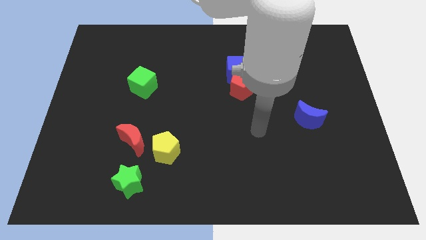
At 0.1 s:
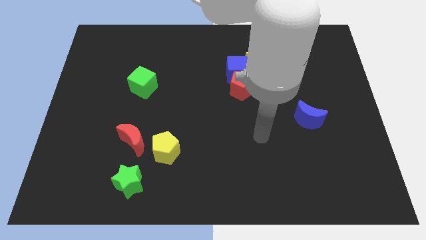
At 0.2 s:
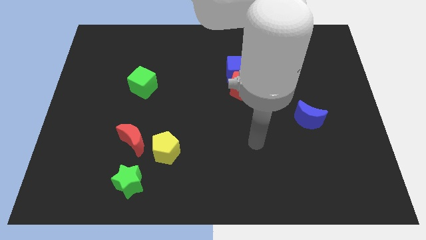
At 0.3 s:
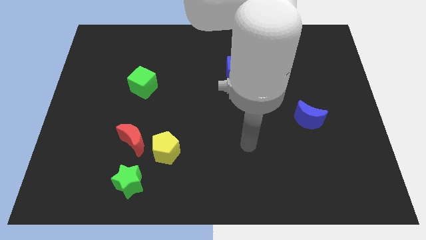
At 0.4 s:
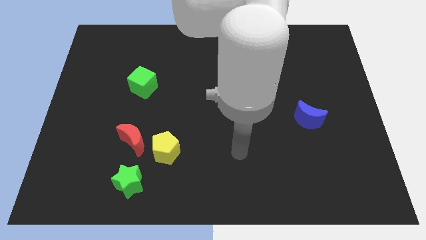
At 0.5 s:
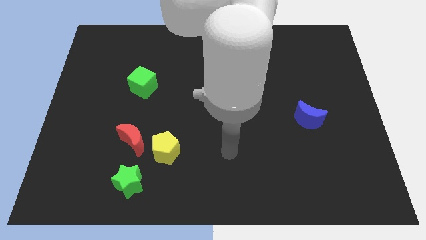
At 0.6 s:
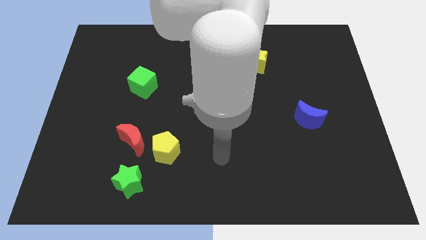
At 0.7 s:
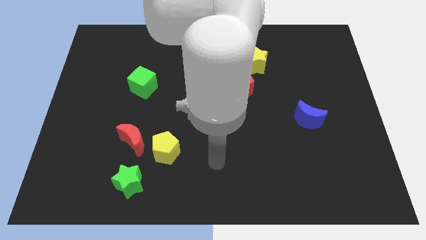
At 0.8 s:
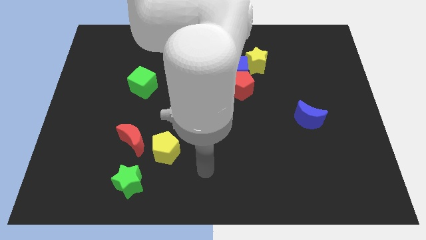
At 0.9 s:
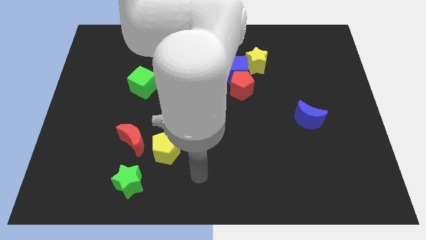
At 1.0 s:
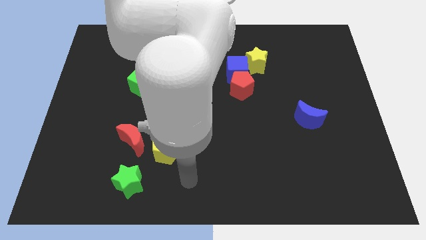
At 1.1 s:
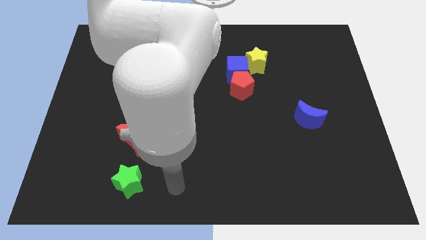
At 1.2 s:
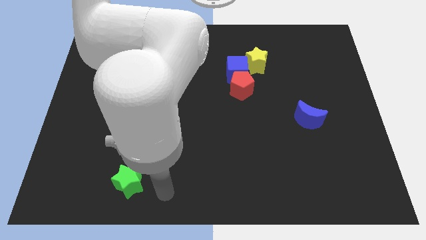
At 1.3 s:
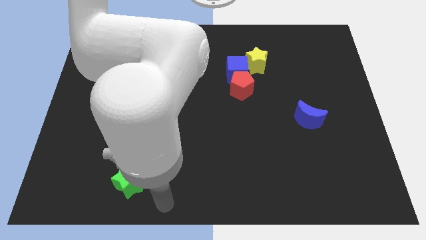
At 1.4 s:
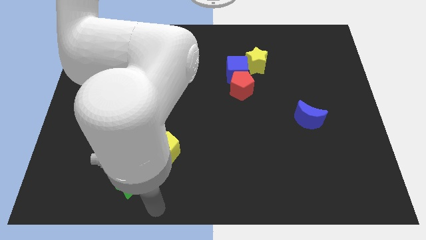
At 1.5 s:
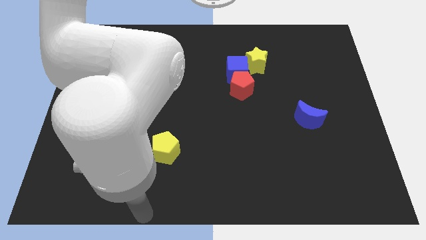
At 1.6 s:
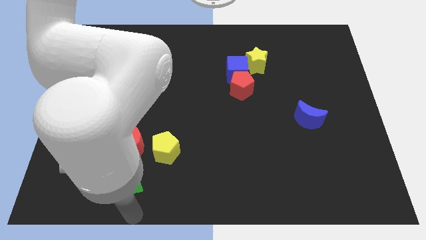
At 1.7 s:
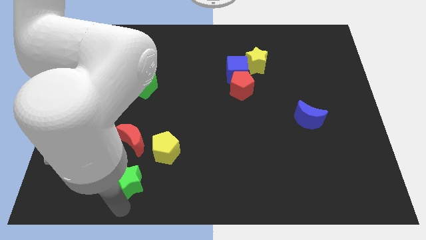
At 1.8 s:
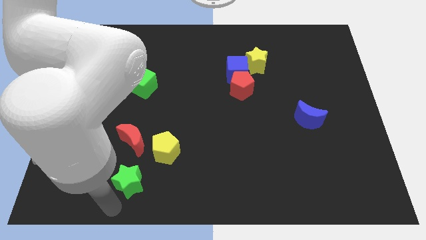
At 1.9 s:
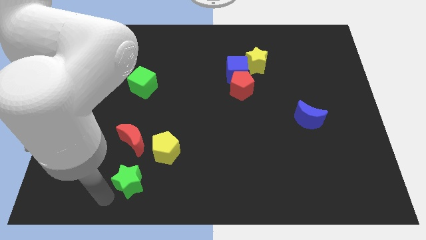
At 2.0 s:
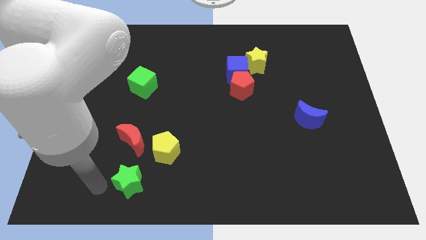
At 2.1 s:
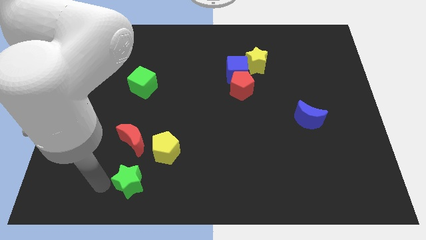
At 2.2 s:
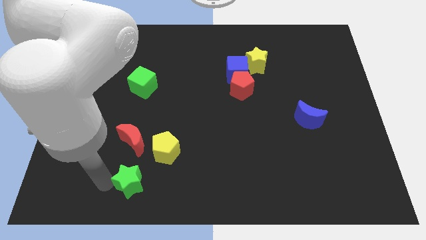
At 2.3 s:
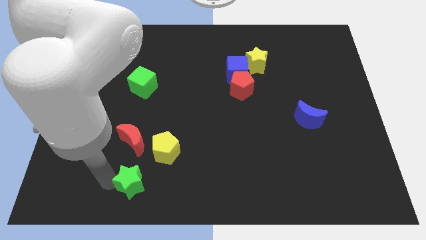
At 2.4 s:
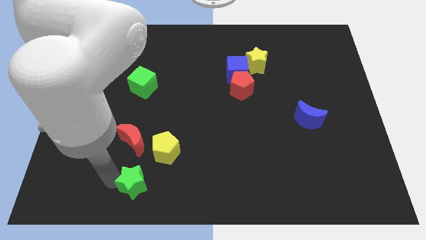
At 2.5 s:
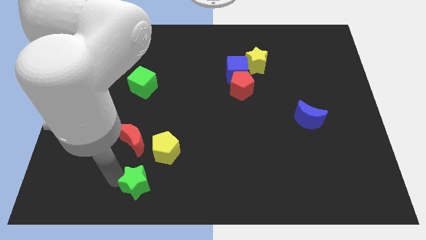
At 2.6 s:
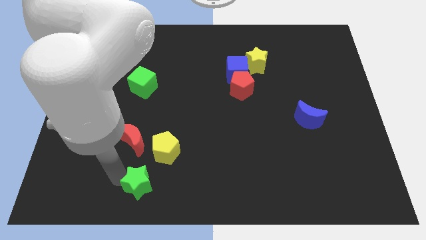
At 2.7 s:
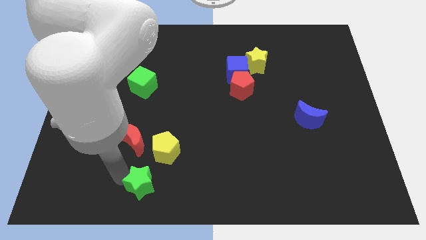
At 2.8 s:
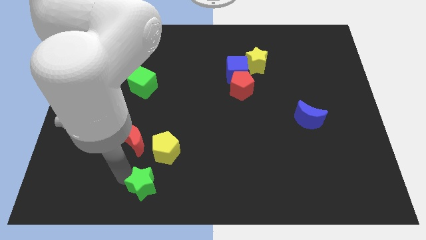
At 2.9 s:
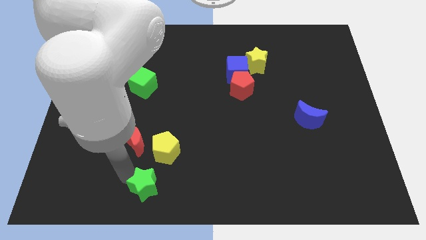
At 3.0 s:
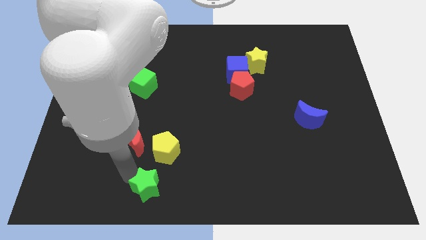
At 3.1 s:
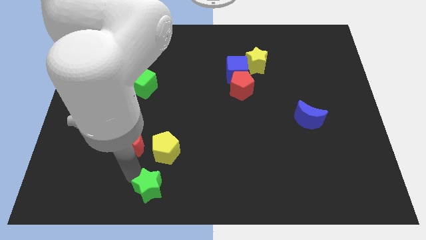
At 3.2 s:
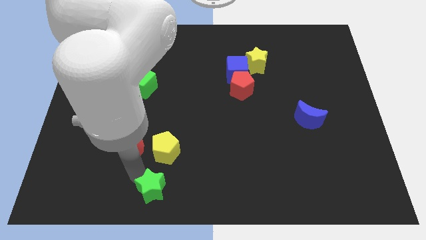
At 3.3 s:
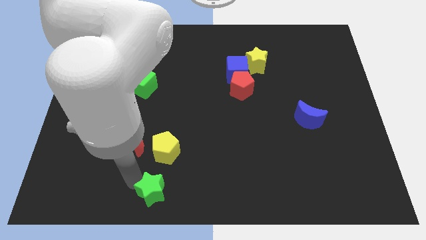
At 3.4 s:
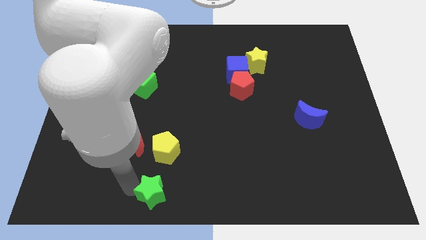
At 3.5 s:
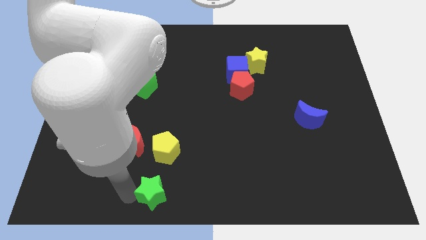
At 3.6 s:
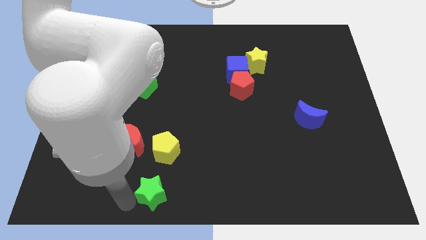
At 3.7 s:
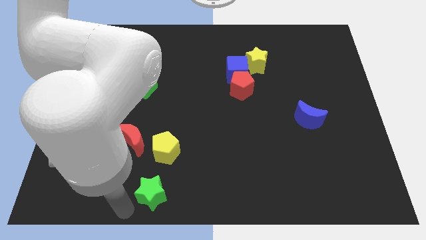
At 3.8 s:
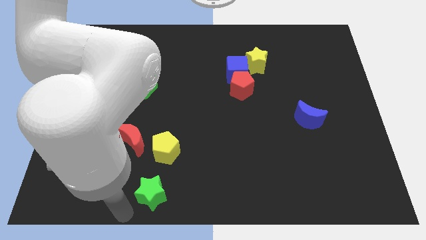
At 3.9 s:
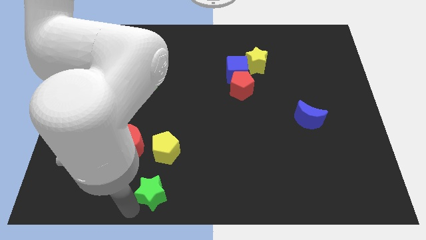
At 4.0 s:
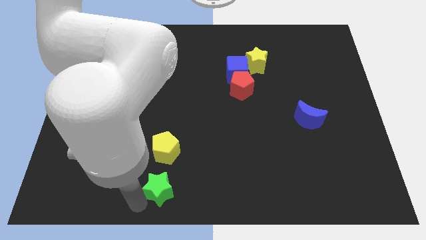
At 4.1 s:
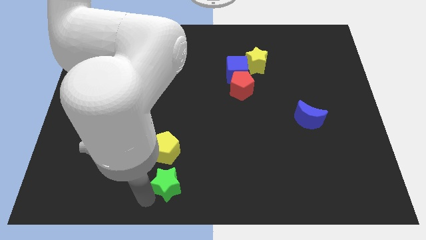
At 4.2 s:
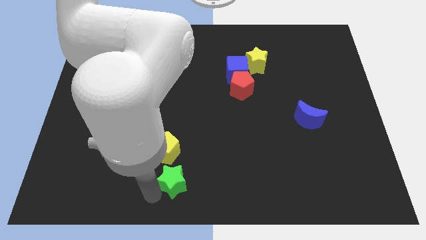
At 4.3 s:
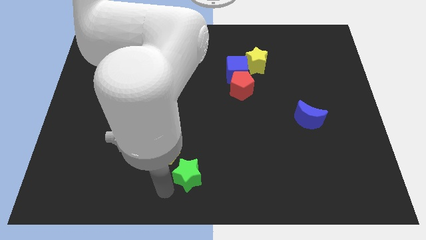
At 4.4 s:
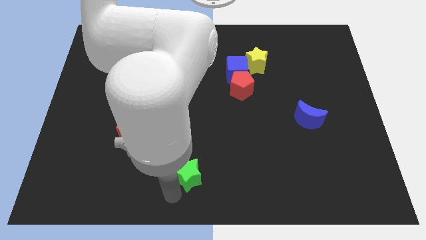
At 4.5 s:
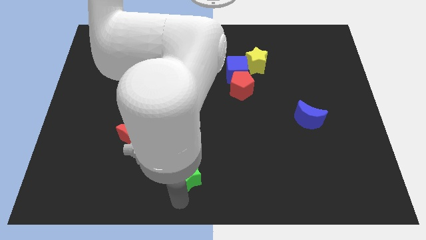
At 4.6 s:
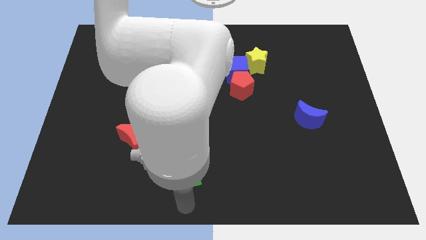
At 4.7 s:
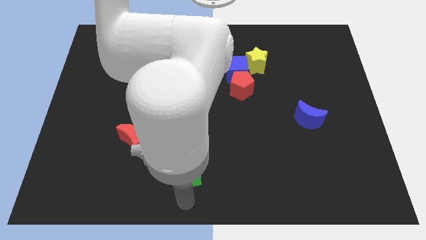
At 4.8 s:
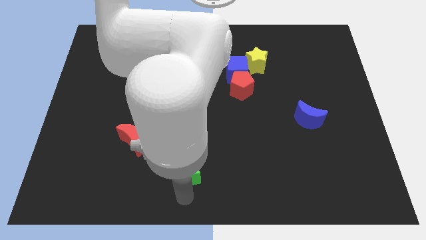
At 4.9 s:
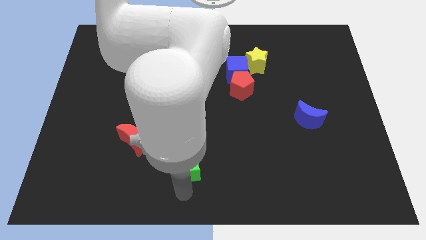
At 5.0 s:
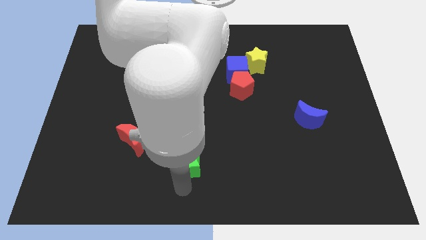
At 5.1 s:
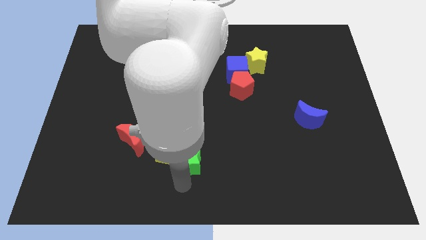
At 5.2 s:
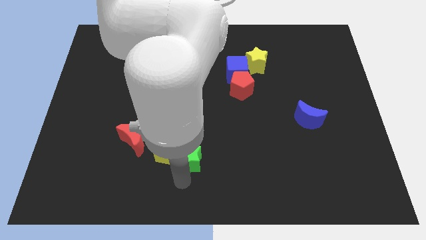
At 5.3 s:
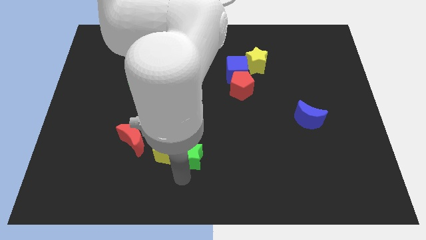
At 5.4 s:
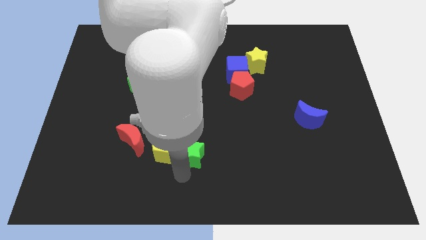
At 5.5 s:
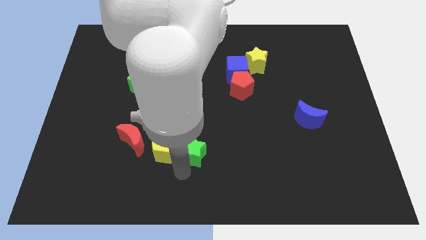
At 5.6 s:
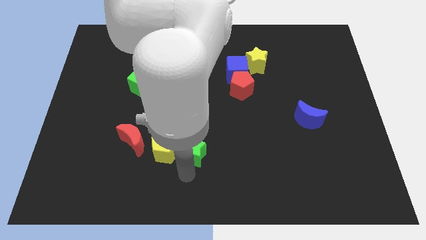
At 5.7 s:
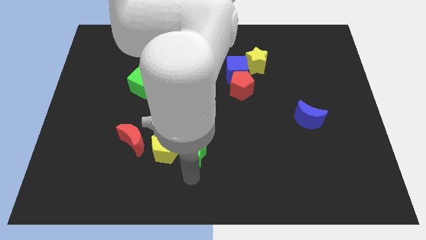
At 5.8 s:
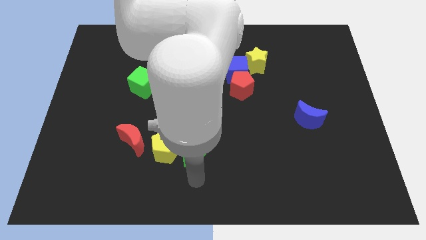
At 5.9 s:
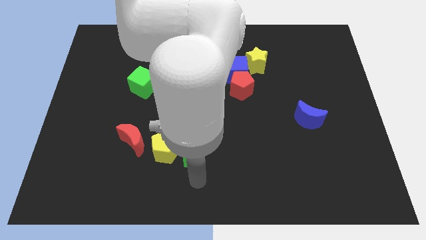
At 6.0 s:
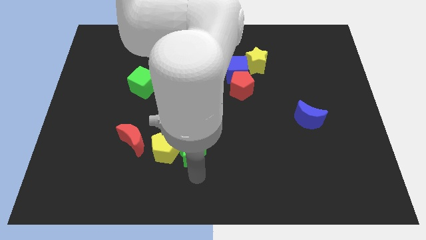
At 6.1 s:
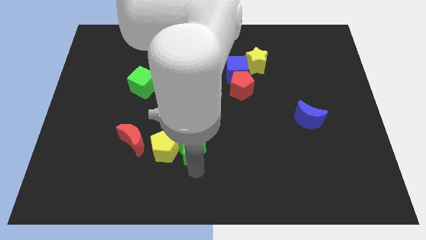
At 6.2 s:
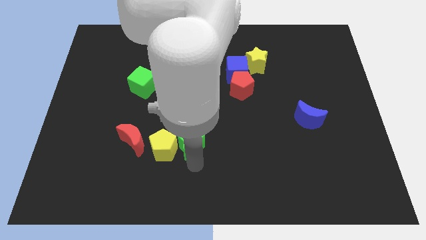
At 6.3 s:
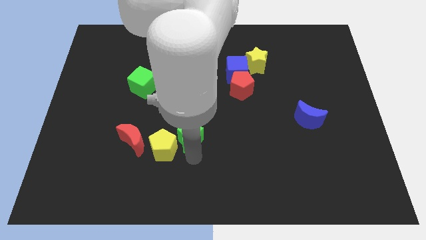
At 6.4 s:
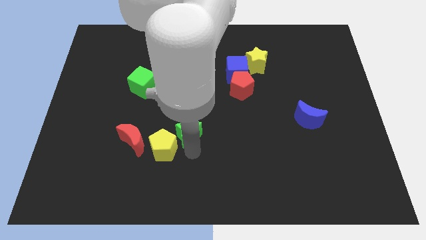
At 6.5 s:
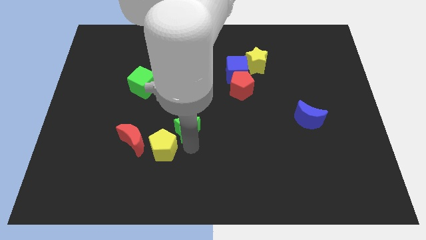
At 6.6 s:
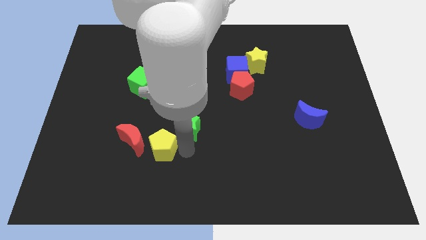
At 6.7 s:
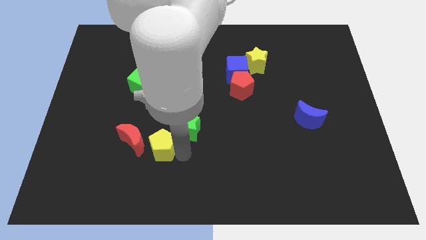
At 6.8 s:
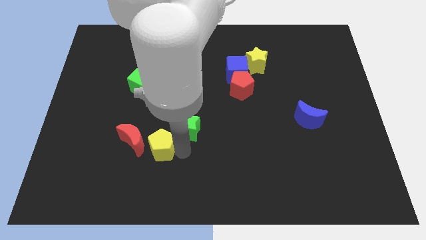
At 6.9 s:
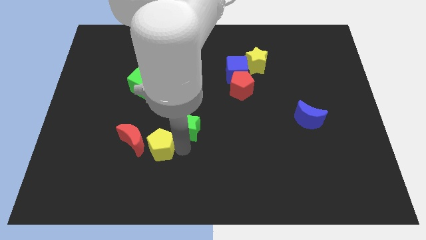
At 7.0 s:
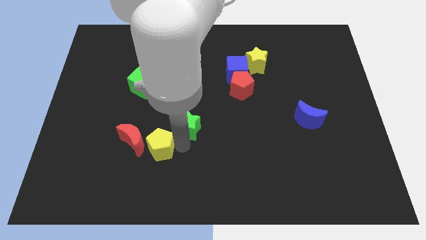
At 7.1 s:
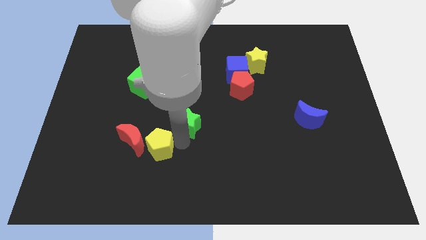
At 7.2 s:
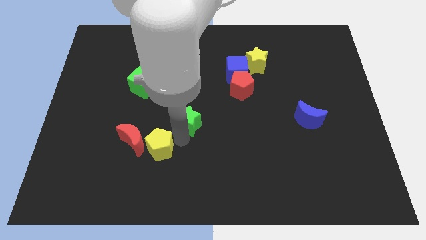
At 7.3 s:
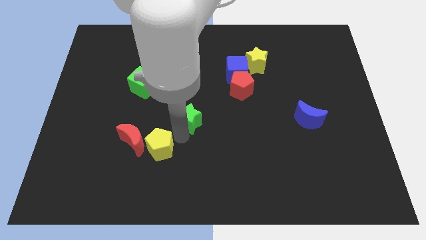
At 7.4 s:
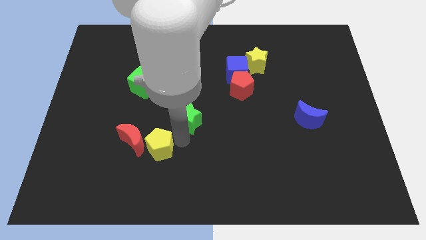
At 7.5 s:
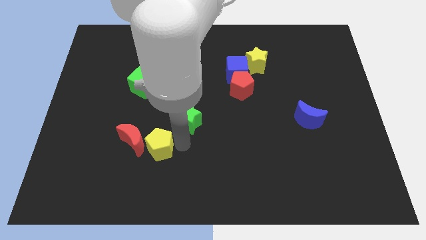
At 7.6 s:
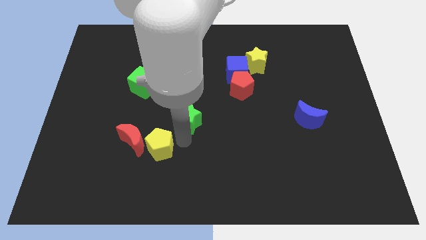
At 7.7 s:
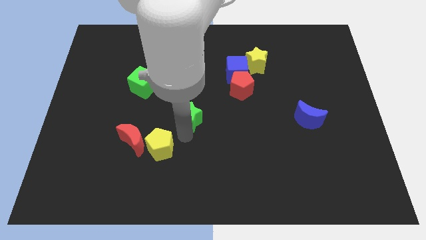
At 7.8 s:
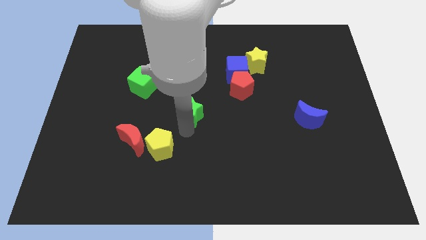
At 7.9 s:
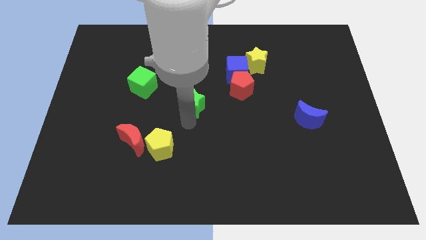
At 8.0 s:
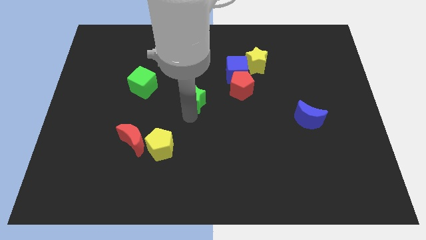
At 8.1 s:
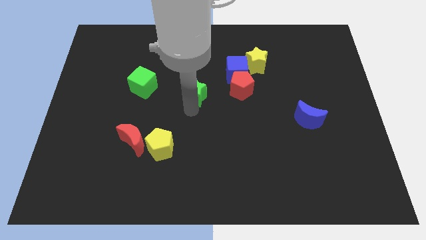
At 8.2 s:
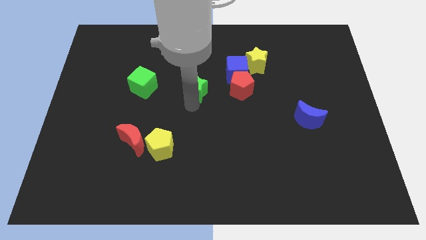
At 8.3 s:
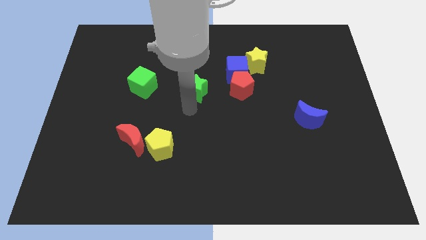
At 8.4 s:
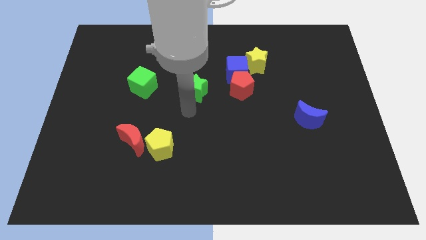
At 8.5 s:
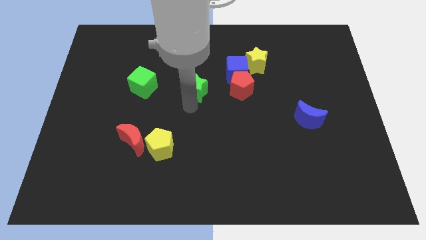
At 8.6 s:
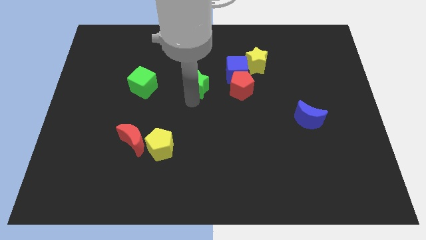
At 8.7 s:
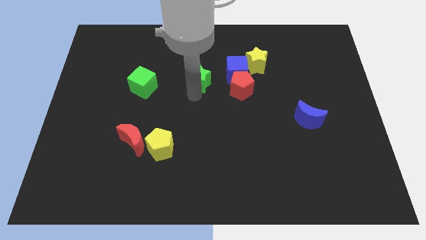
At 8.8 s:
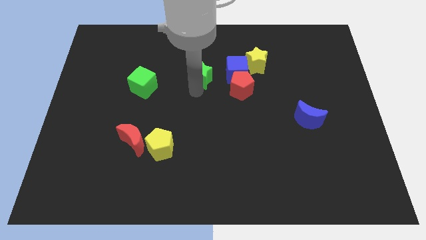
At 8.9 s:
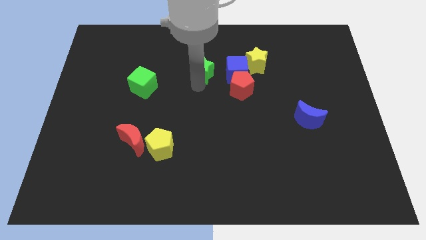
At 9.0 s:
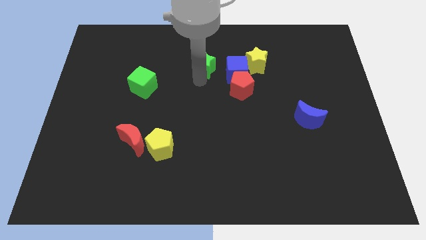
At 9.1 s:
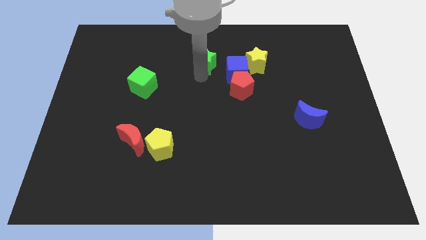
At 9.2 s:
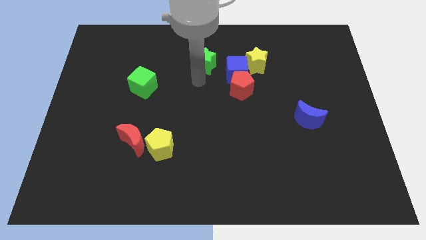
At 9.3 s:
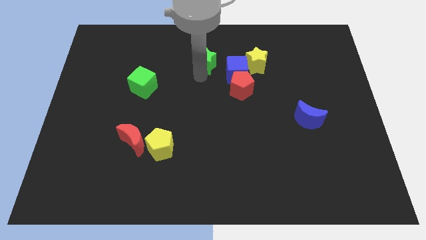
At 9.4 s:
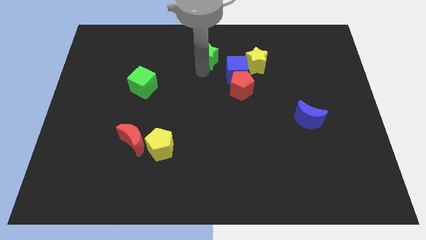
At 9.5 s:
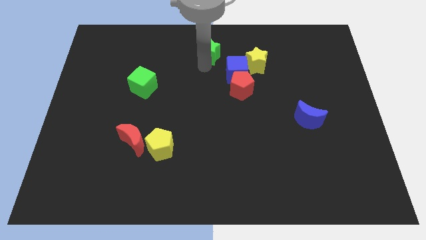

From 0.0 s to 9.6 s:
slide the green star to the top
